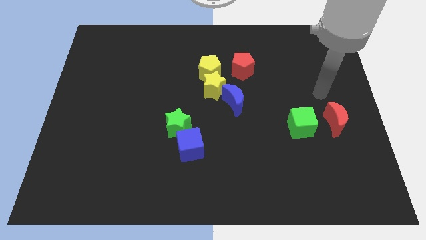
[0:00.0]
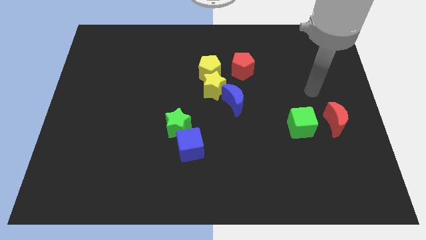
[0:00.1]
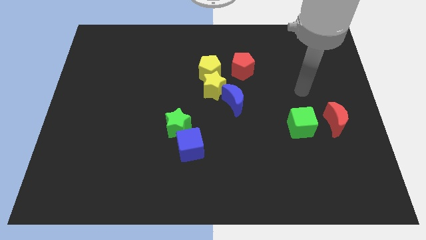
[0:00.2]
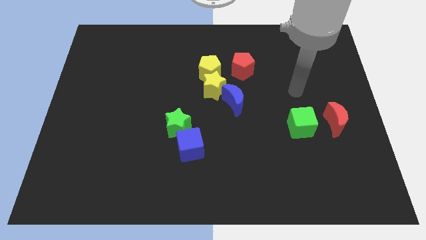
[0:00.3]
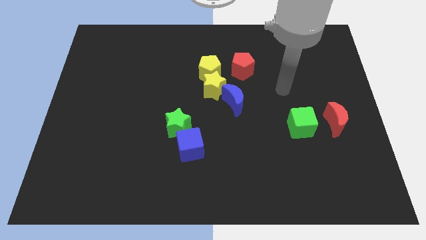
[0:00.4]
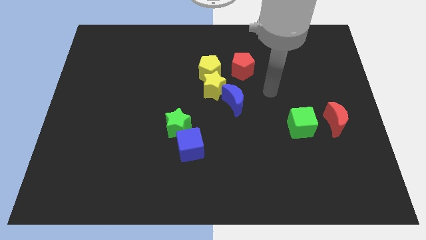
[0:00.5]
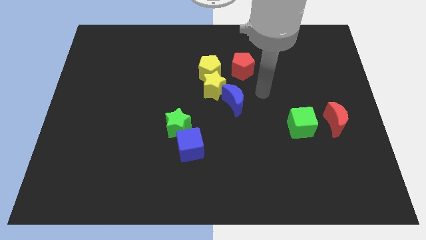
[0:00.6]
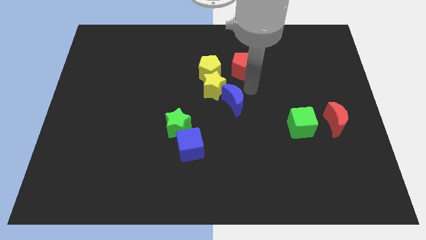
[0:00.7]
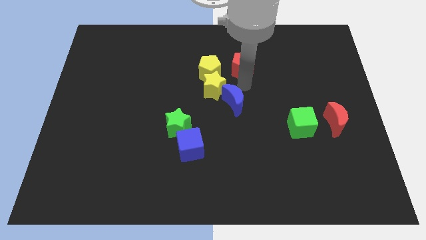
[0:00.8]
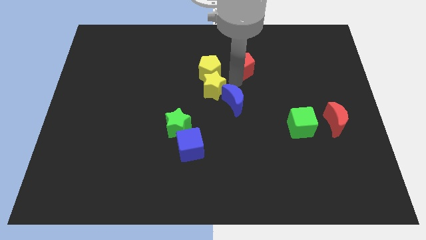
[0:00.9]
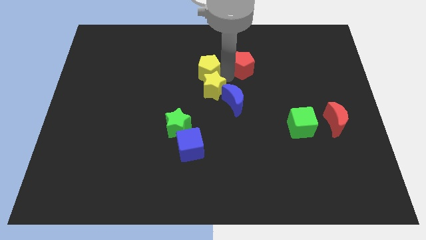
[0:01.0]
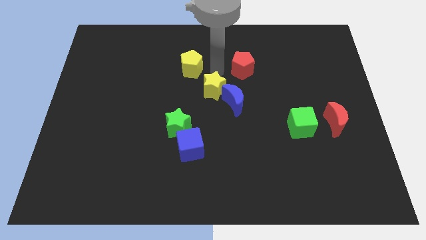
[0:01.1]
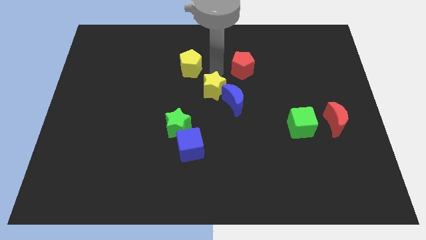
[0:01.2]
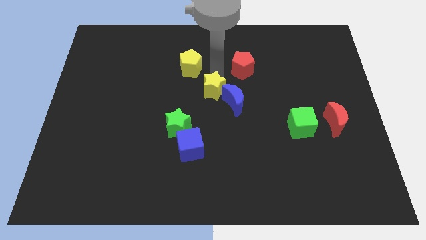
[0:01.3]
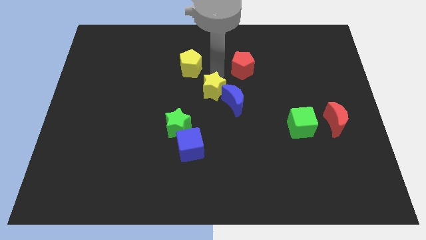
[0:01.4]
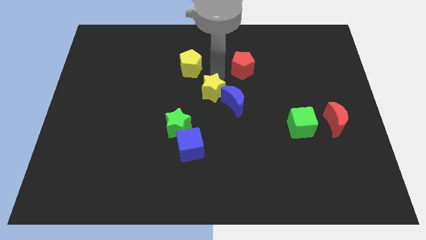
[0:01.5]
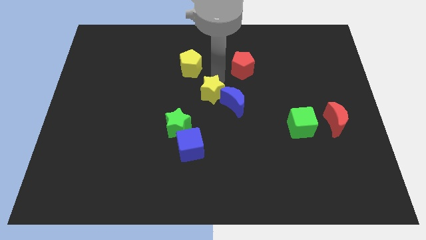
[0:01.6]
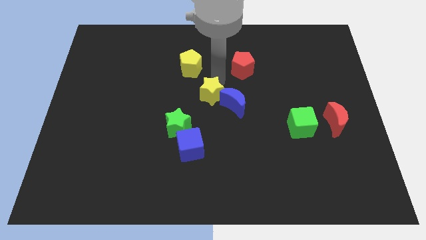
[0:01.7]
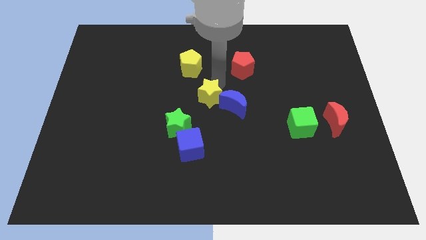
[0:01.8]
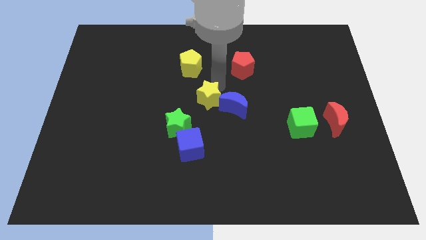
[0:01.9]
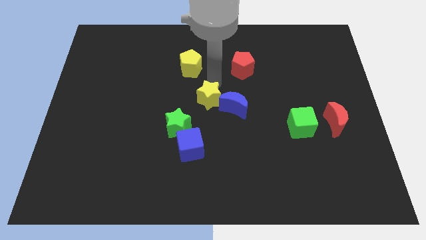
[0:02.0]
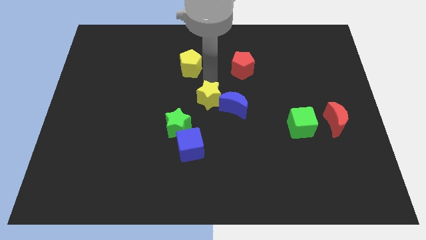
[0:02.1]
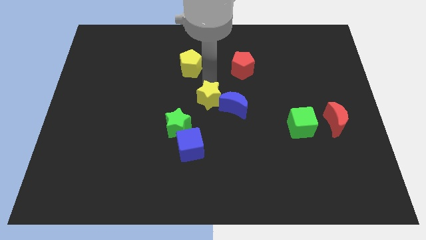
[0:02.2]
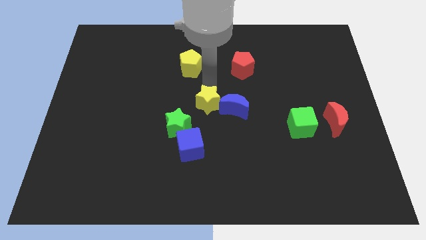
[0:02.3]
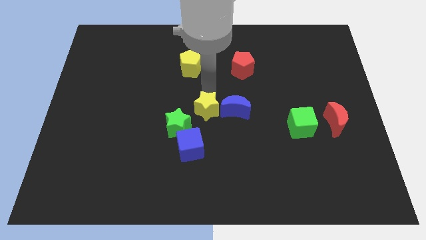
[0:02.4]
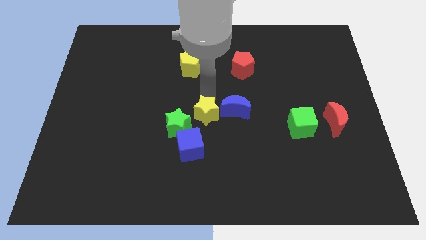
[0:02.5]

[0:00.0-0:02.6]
push the yellow star downwards a little

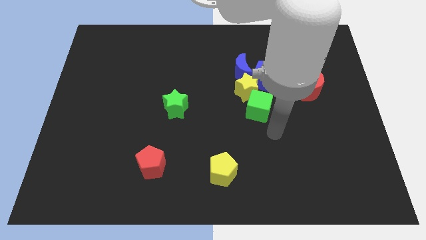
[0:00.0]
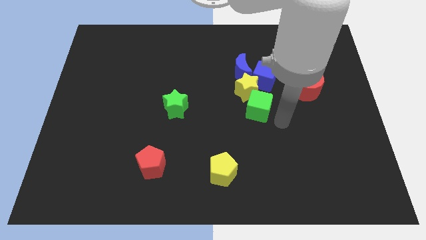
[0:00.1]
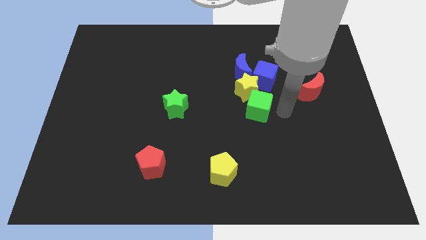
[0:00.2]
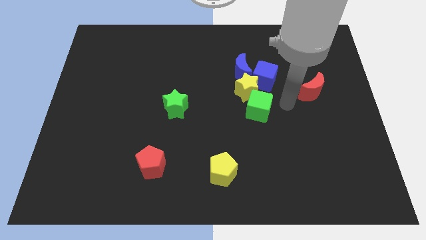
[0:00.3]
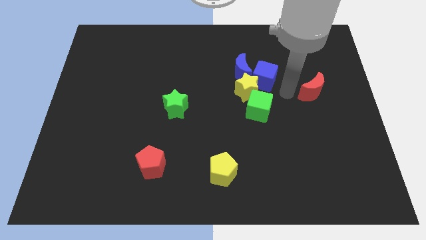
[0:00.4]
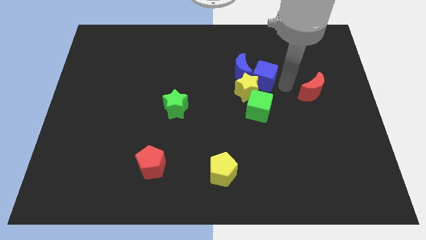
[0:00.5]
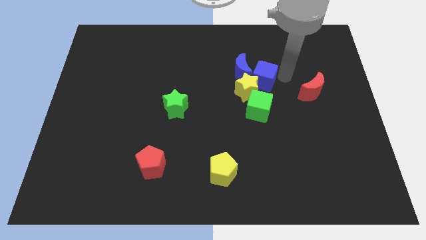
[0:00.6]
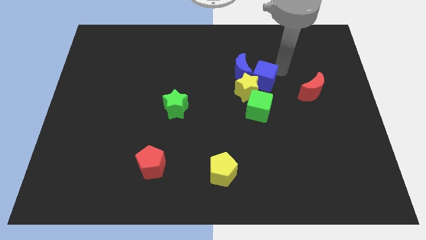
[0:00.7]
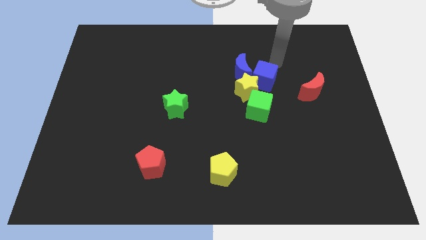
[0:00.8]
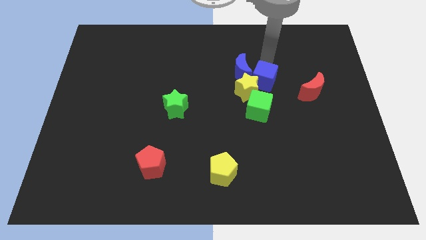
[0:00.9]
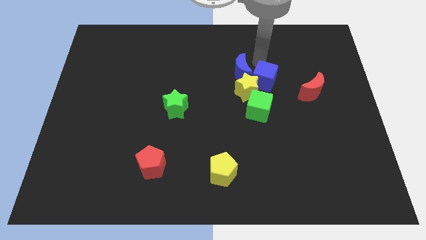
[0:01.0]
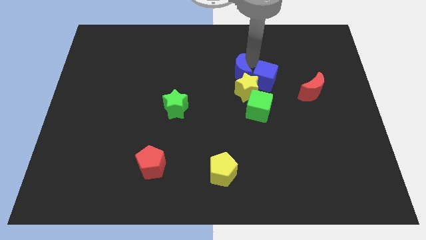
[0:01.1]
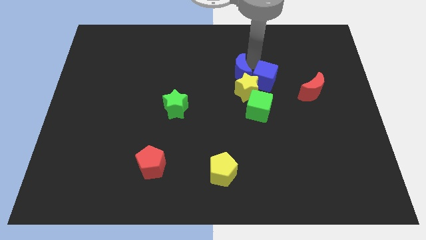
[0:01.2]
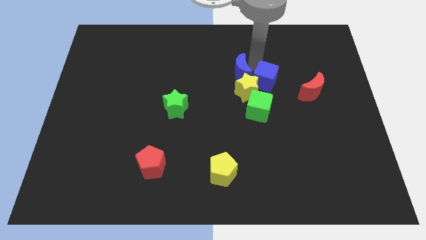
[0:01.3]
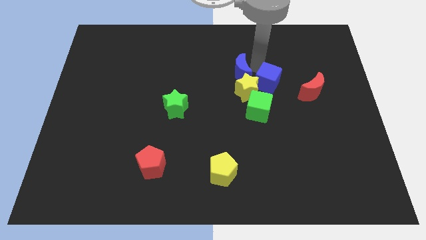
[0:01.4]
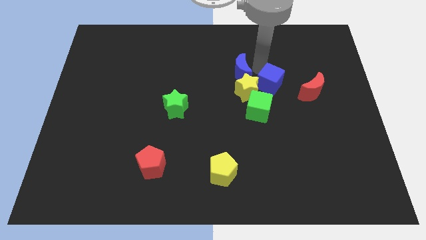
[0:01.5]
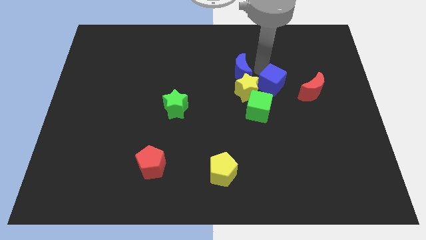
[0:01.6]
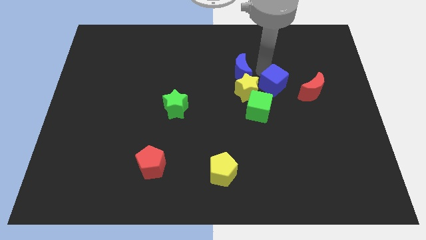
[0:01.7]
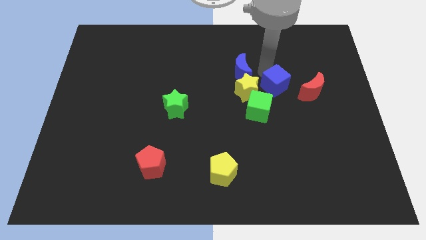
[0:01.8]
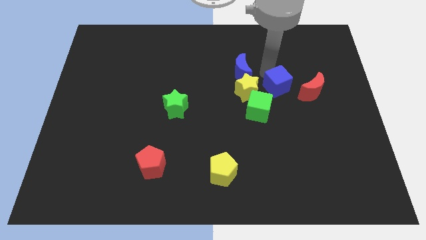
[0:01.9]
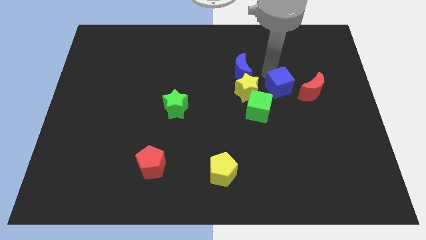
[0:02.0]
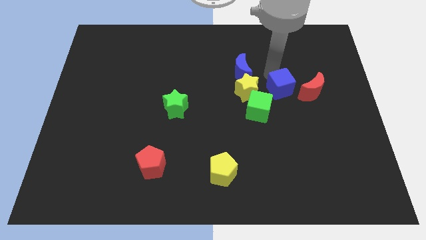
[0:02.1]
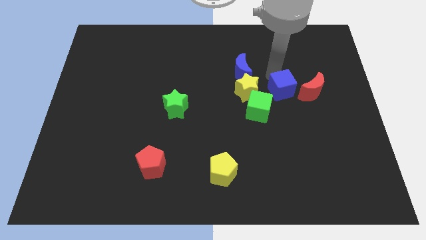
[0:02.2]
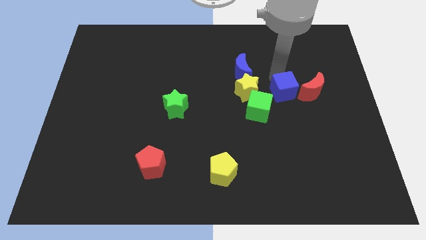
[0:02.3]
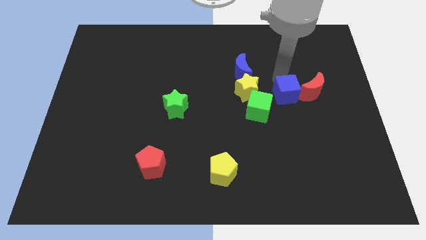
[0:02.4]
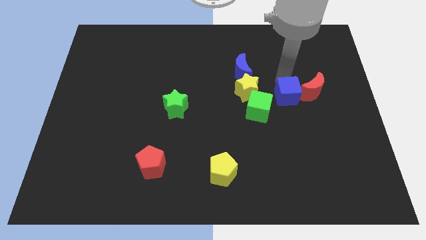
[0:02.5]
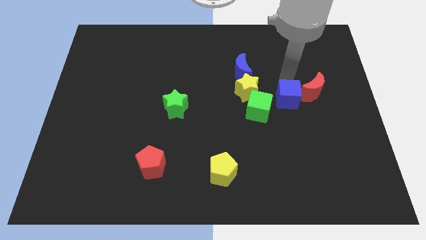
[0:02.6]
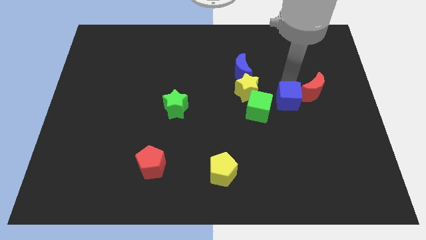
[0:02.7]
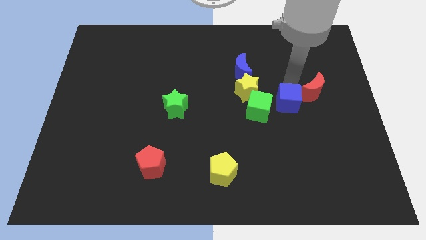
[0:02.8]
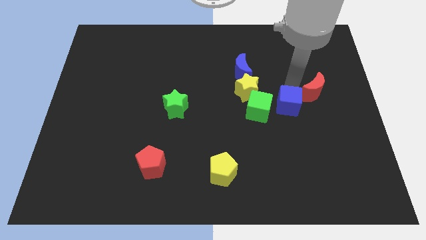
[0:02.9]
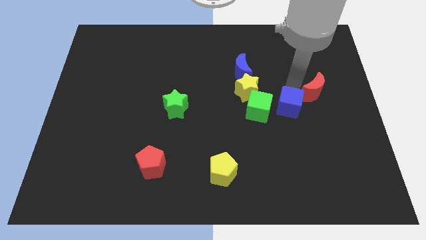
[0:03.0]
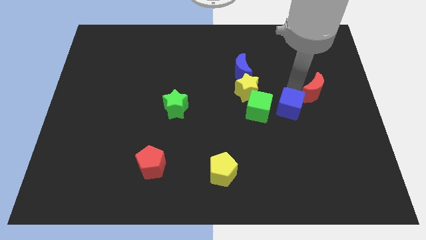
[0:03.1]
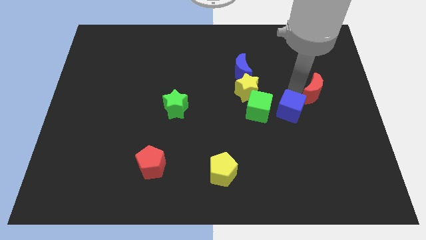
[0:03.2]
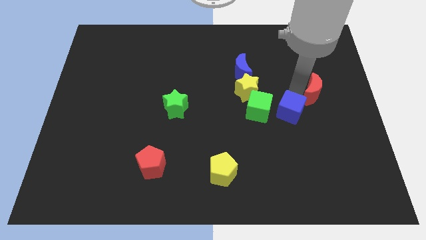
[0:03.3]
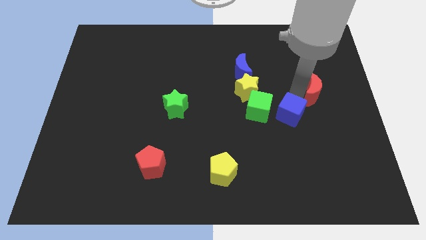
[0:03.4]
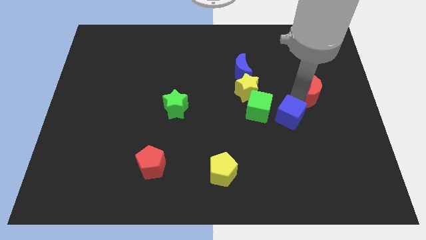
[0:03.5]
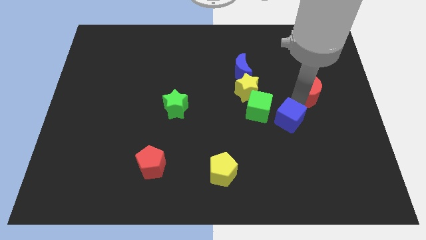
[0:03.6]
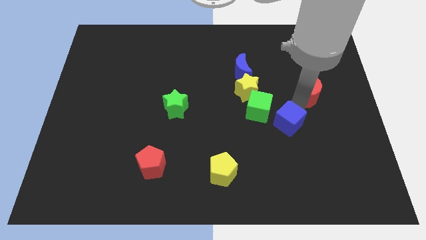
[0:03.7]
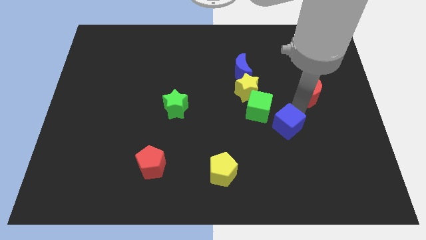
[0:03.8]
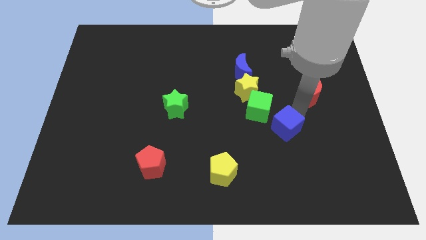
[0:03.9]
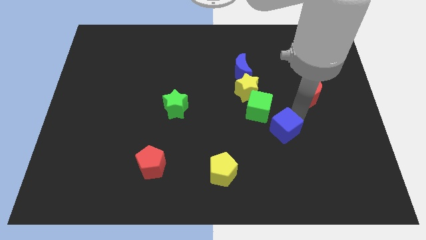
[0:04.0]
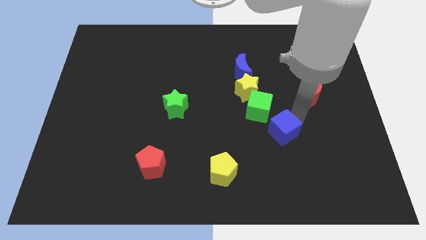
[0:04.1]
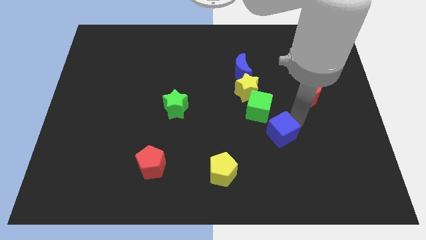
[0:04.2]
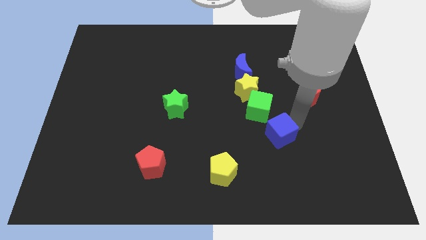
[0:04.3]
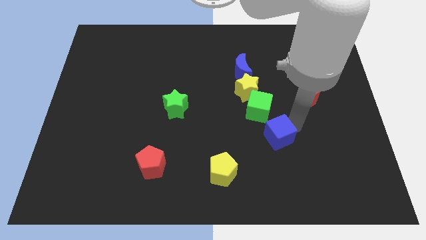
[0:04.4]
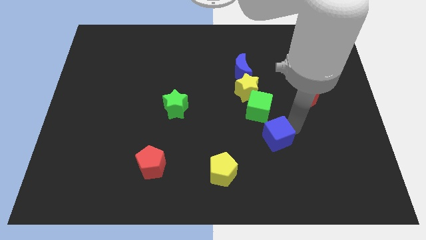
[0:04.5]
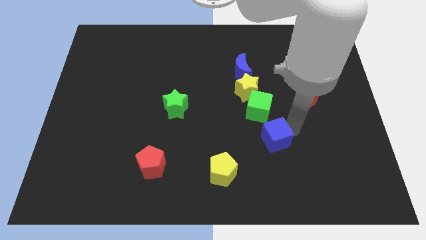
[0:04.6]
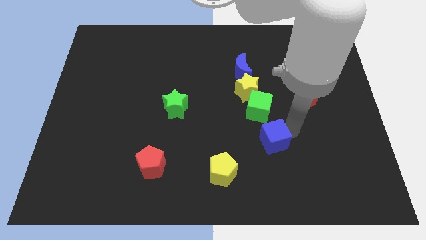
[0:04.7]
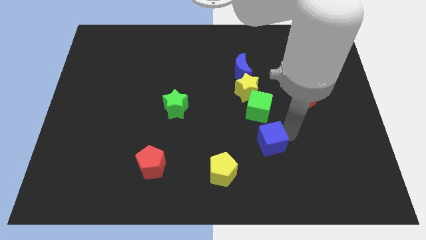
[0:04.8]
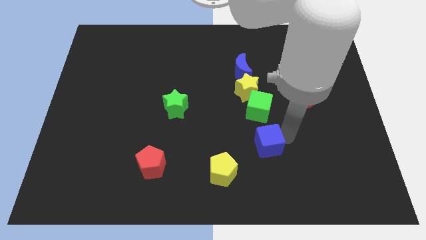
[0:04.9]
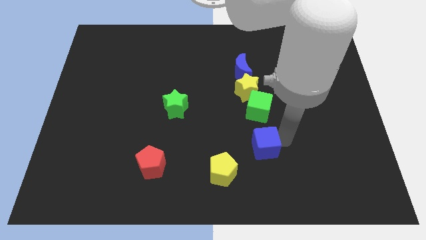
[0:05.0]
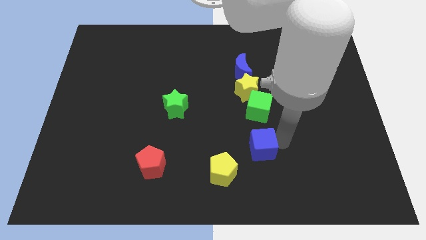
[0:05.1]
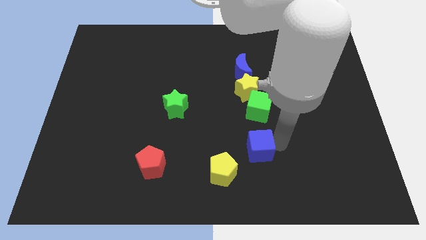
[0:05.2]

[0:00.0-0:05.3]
move the blue cube diagonally downwards and left a little bit

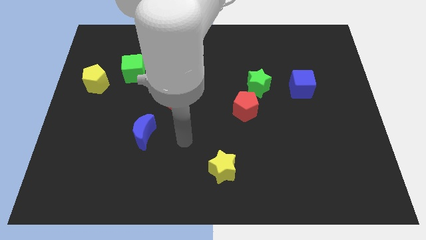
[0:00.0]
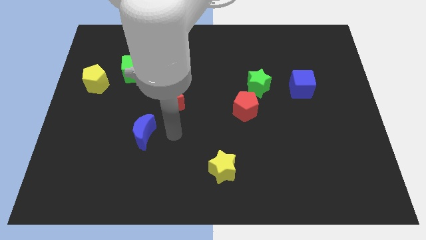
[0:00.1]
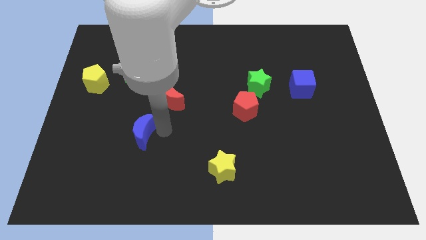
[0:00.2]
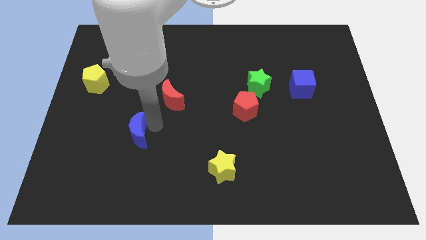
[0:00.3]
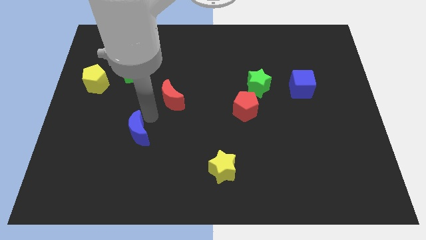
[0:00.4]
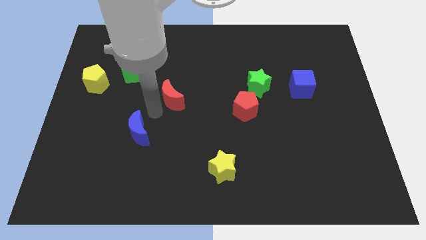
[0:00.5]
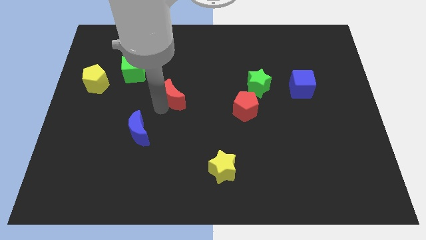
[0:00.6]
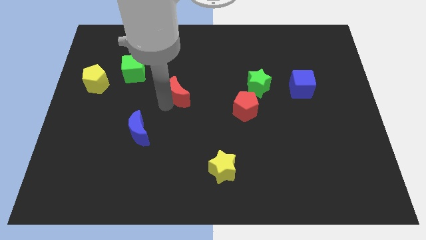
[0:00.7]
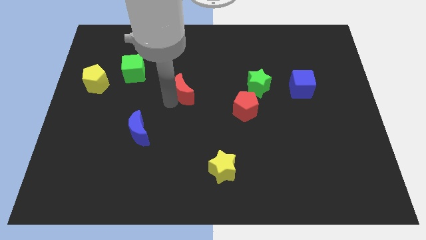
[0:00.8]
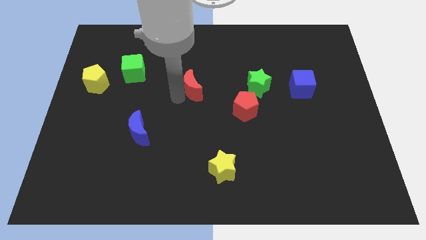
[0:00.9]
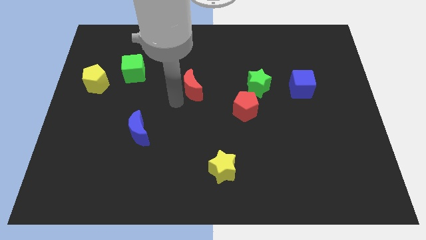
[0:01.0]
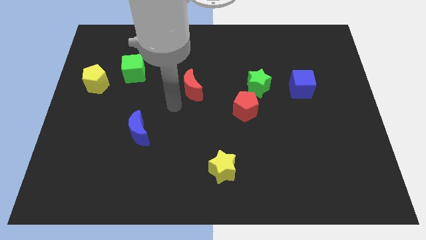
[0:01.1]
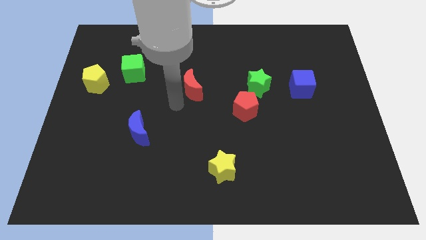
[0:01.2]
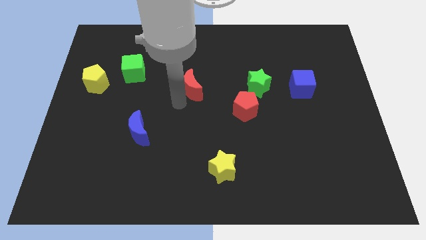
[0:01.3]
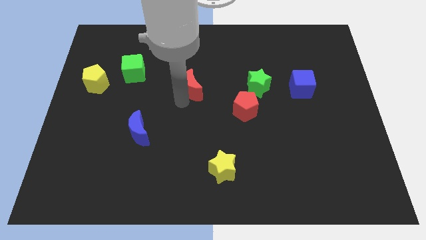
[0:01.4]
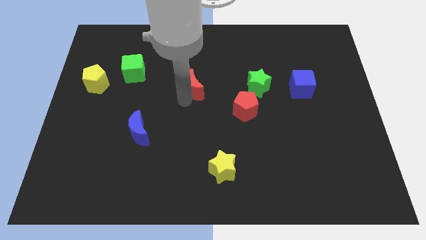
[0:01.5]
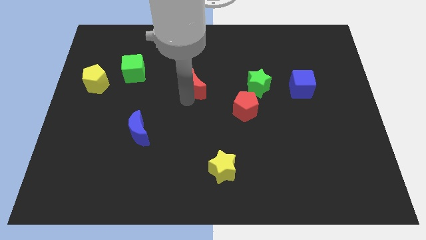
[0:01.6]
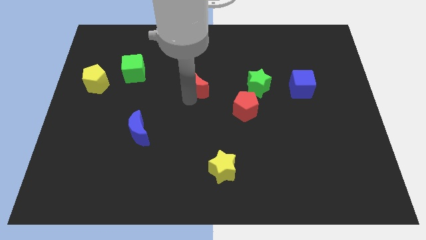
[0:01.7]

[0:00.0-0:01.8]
slightly move the red moon upwards and right diagonally
